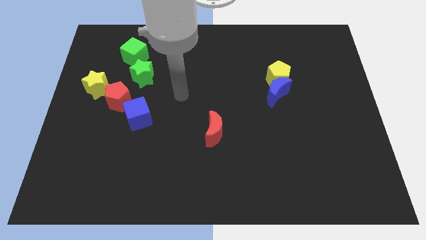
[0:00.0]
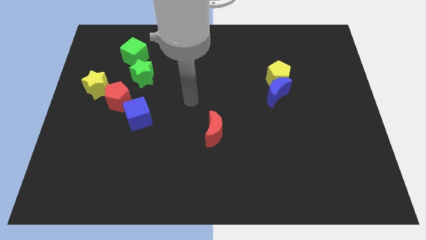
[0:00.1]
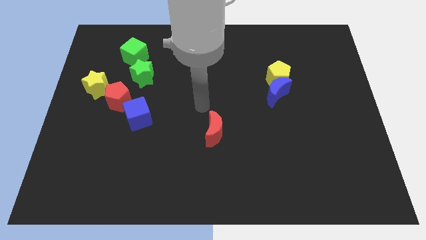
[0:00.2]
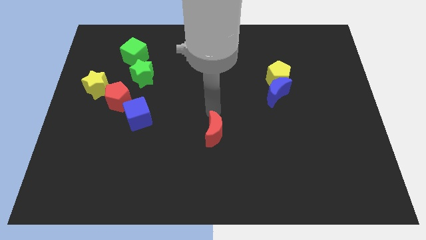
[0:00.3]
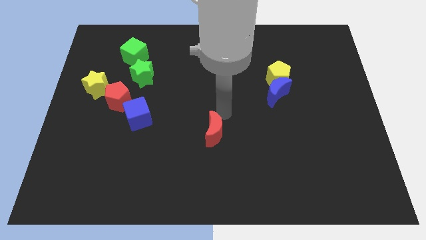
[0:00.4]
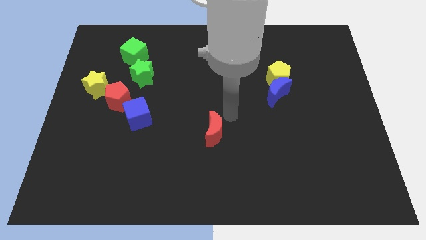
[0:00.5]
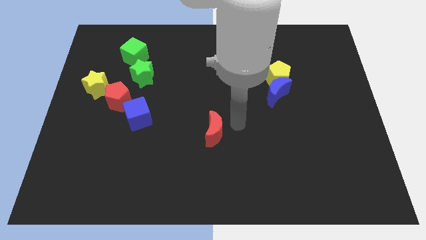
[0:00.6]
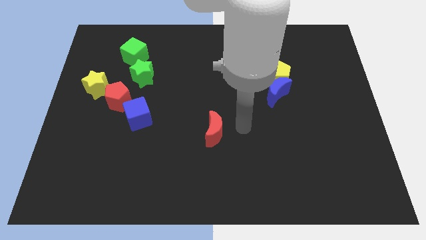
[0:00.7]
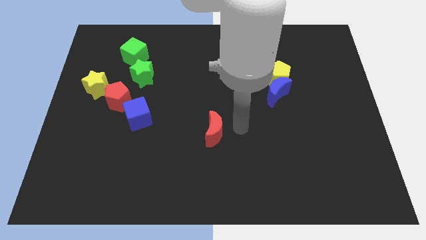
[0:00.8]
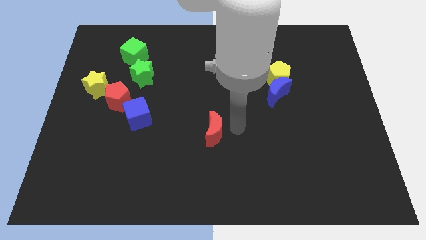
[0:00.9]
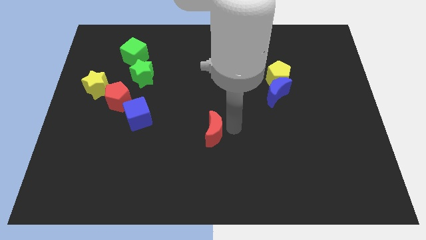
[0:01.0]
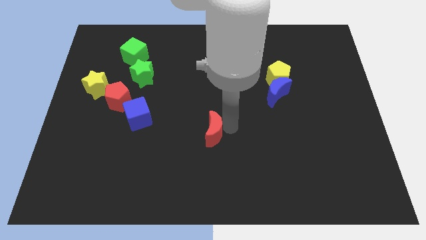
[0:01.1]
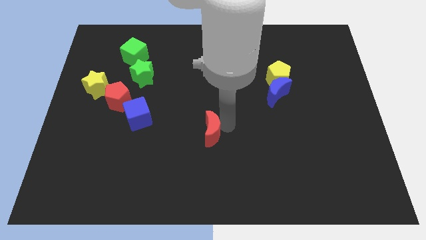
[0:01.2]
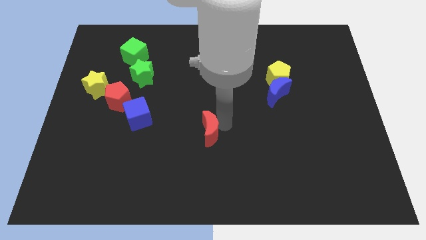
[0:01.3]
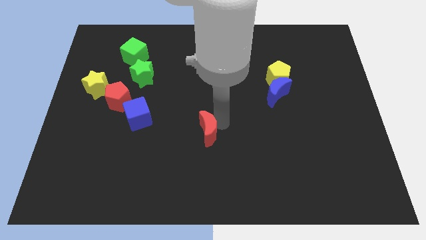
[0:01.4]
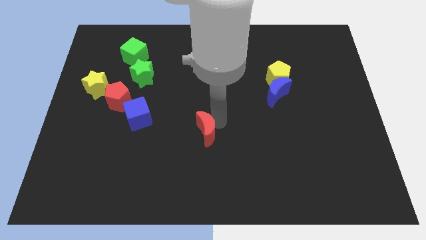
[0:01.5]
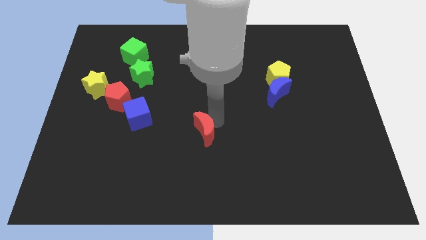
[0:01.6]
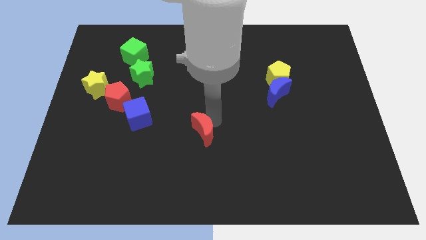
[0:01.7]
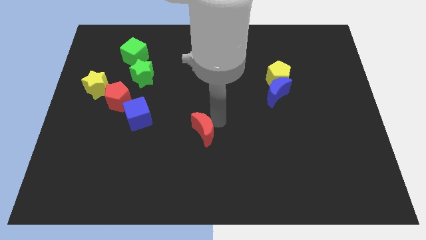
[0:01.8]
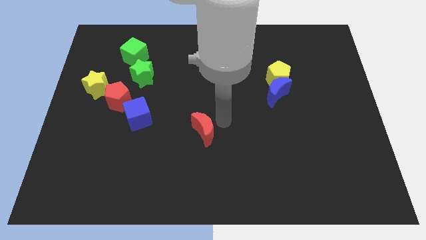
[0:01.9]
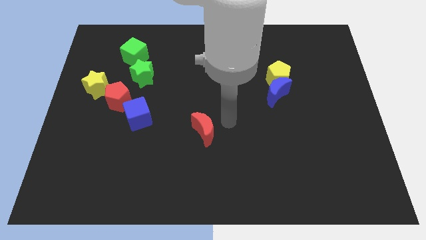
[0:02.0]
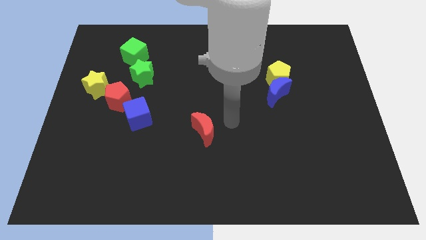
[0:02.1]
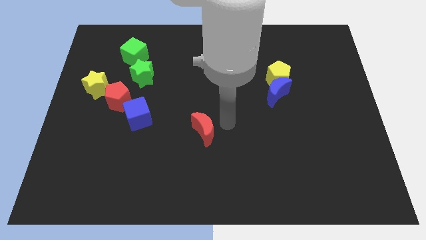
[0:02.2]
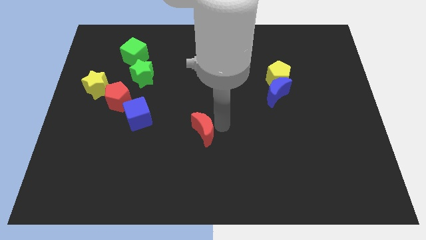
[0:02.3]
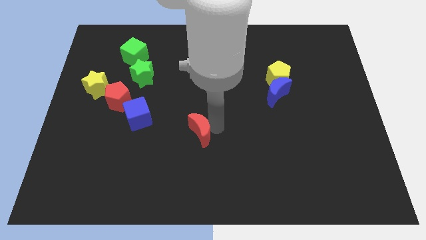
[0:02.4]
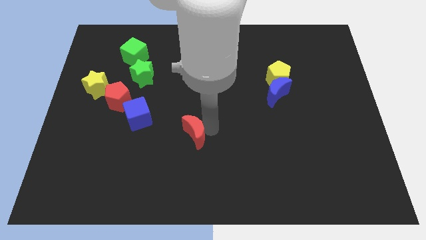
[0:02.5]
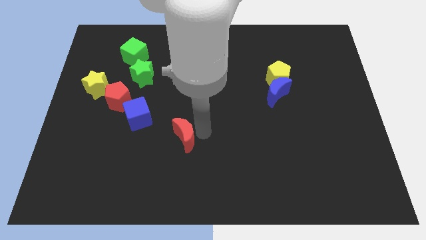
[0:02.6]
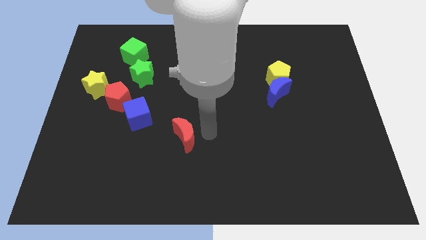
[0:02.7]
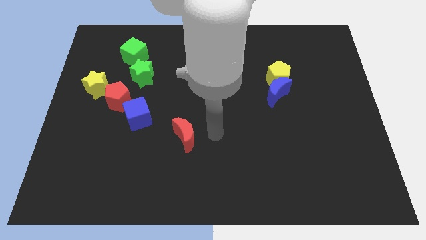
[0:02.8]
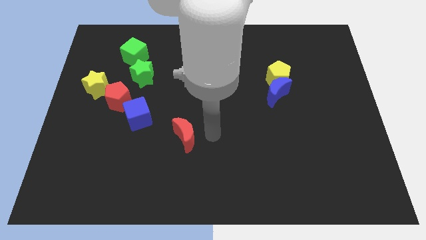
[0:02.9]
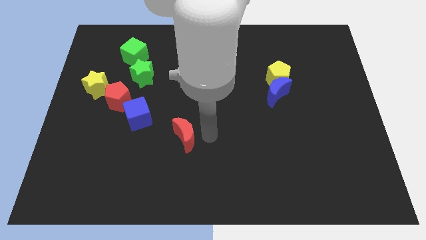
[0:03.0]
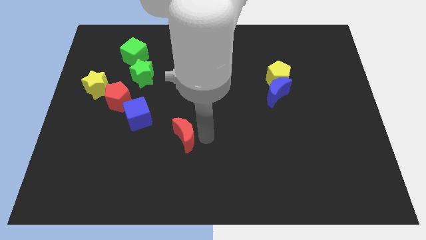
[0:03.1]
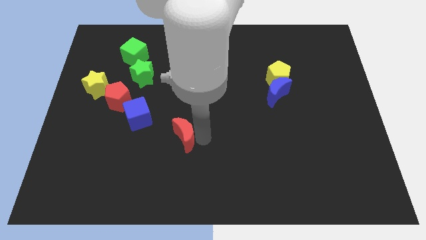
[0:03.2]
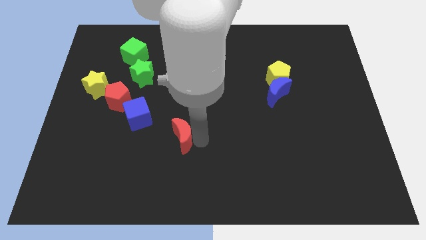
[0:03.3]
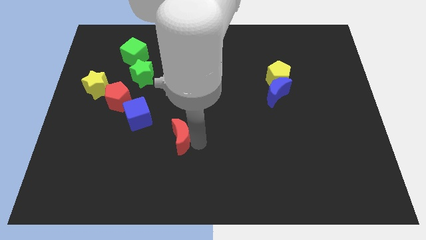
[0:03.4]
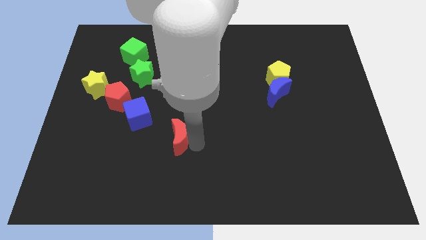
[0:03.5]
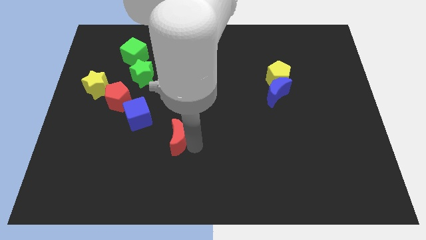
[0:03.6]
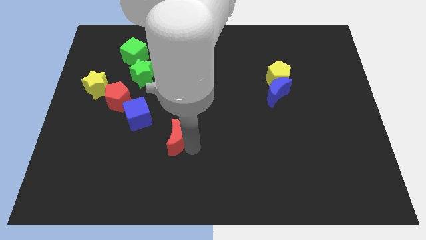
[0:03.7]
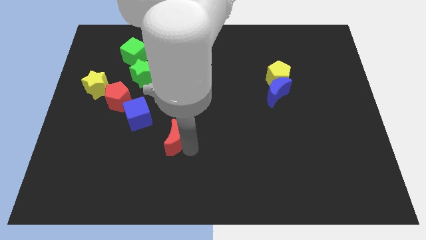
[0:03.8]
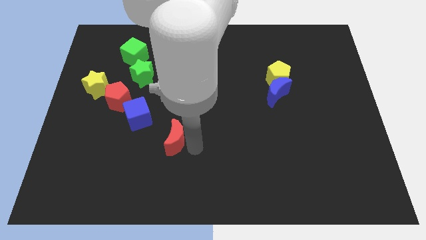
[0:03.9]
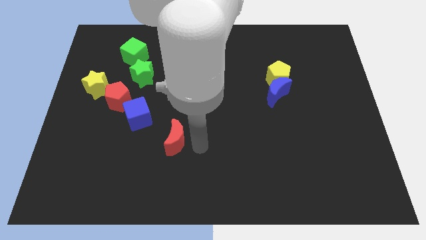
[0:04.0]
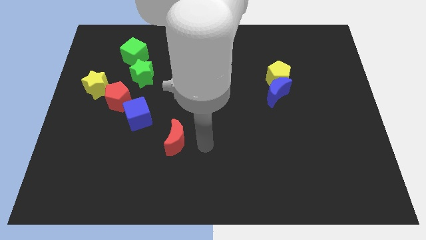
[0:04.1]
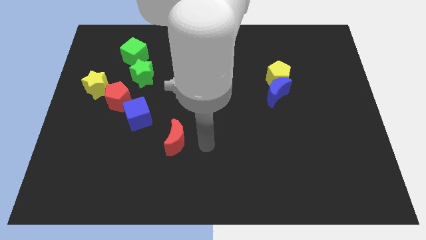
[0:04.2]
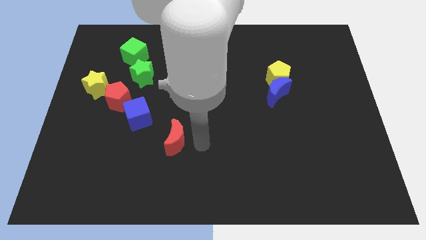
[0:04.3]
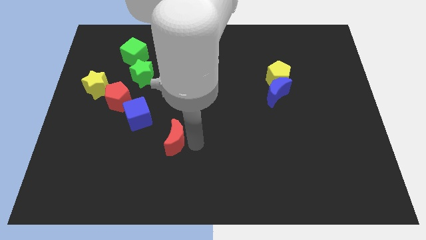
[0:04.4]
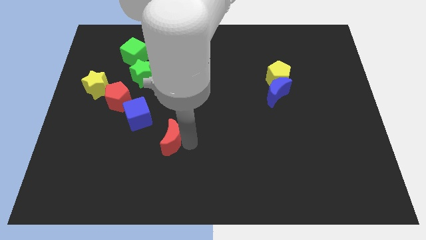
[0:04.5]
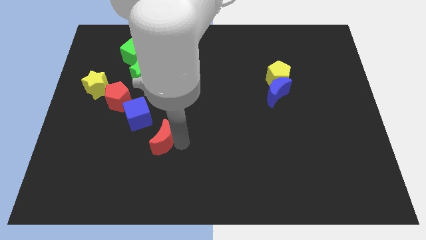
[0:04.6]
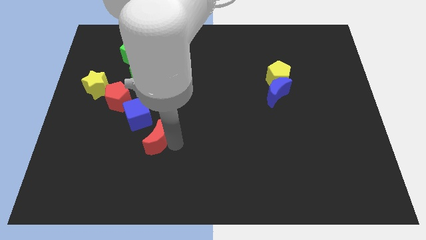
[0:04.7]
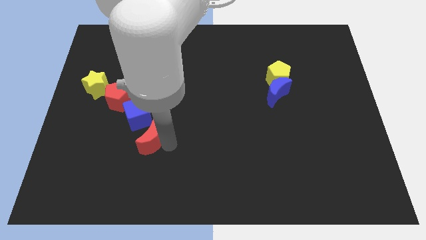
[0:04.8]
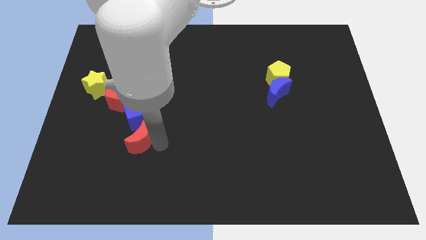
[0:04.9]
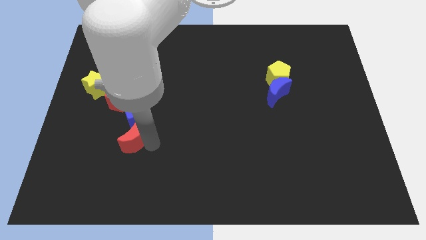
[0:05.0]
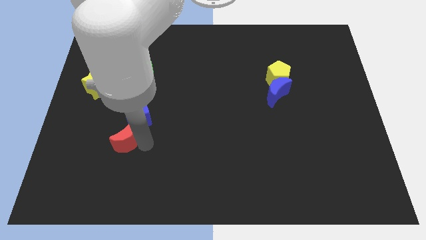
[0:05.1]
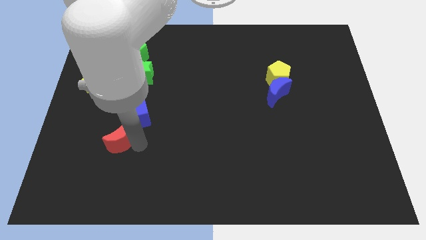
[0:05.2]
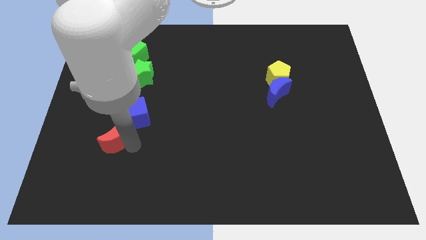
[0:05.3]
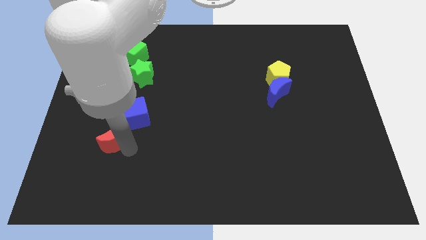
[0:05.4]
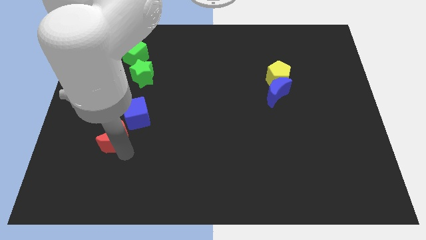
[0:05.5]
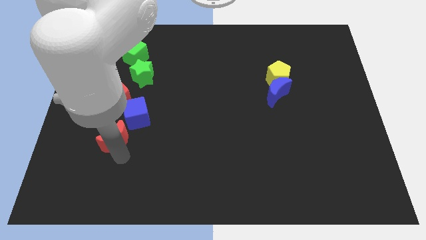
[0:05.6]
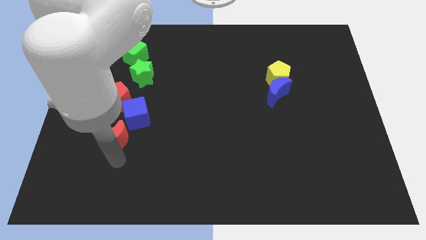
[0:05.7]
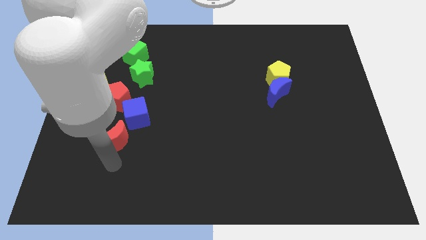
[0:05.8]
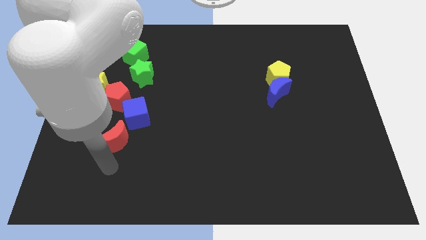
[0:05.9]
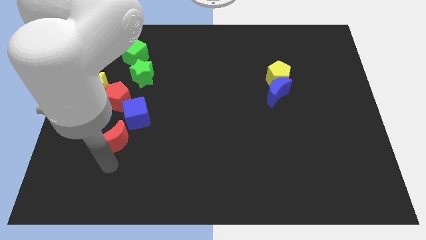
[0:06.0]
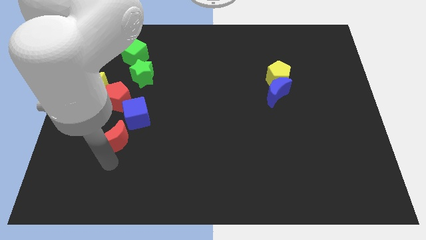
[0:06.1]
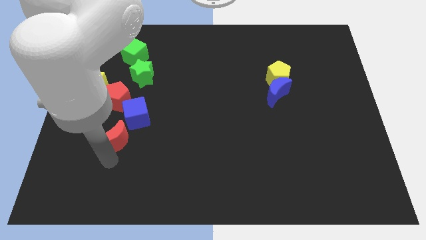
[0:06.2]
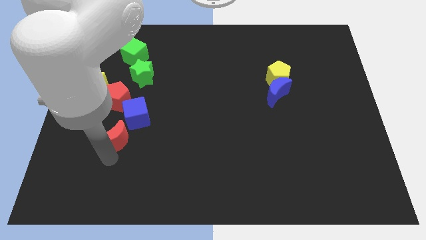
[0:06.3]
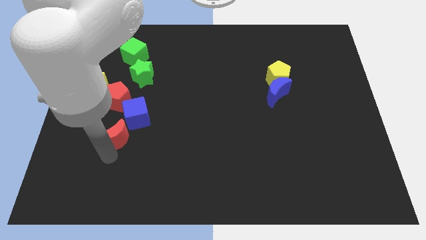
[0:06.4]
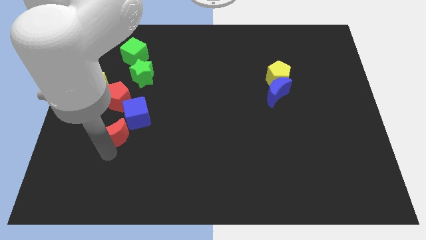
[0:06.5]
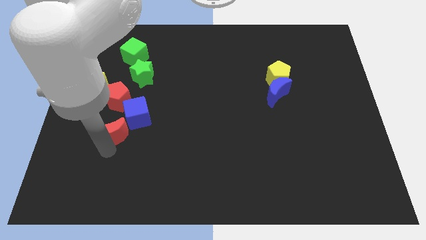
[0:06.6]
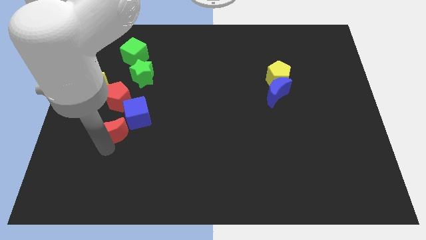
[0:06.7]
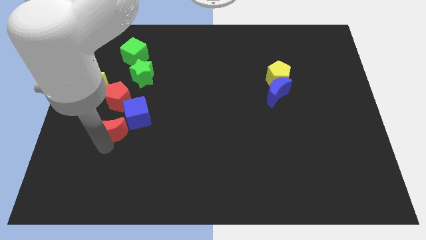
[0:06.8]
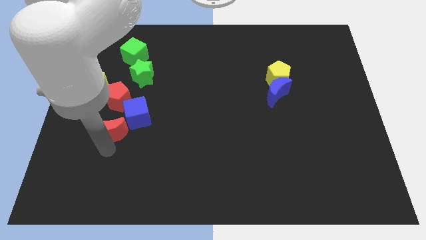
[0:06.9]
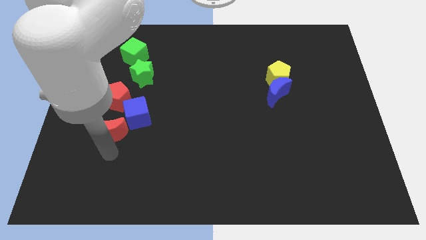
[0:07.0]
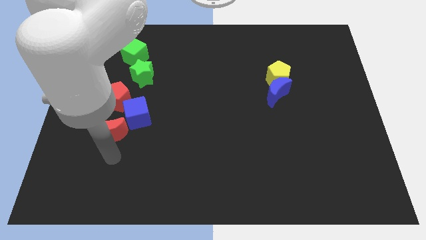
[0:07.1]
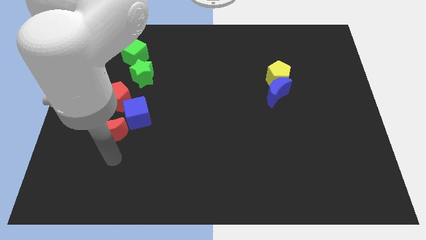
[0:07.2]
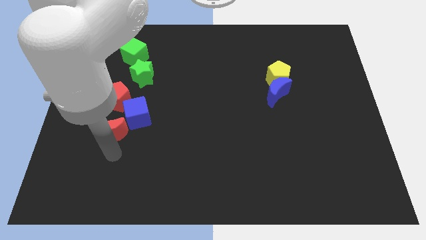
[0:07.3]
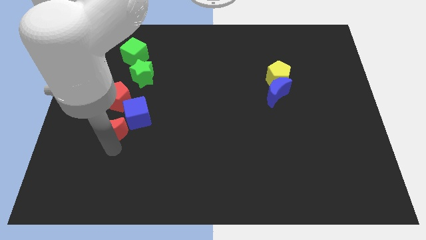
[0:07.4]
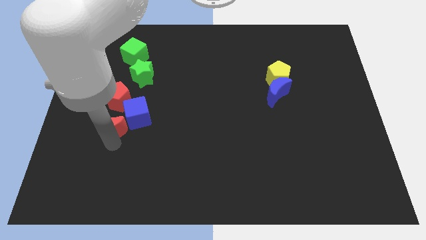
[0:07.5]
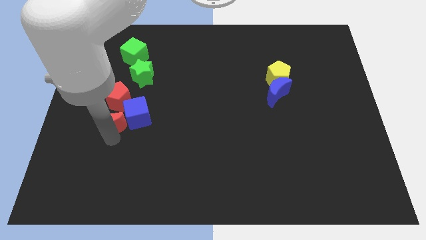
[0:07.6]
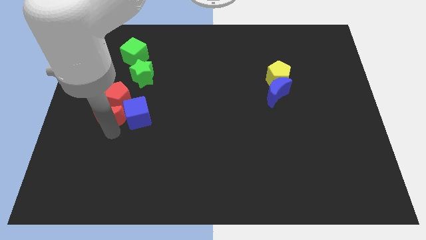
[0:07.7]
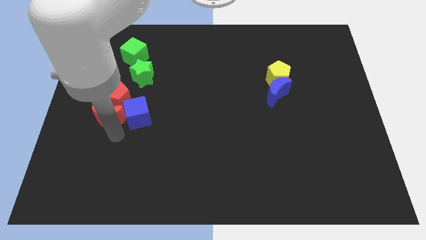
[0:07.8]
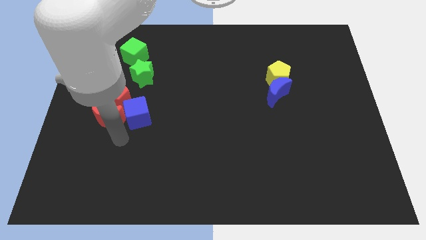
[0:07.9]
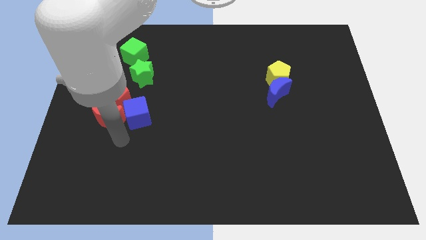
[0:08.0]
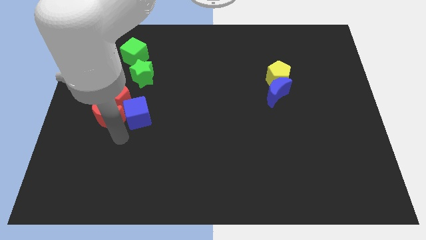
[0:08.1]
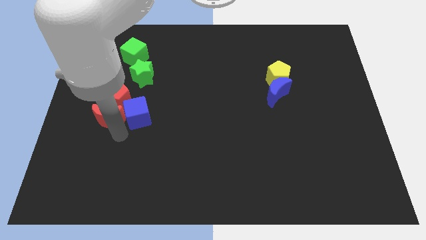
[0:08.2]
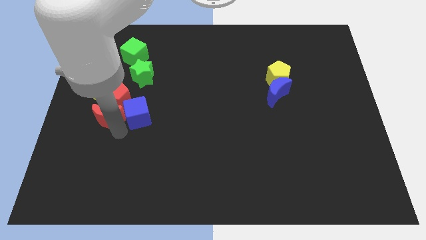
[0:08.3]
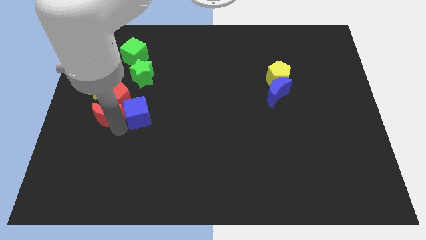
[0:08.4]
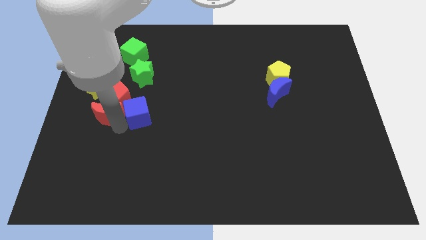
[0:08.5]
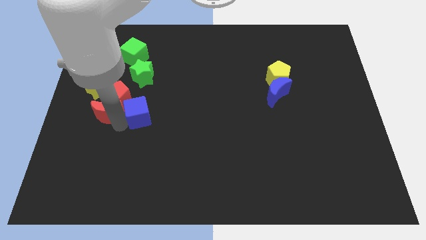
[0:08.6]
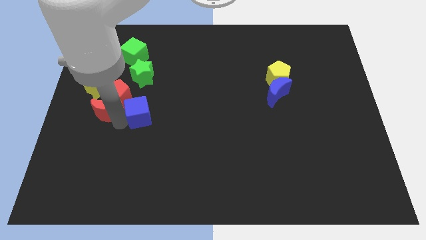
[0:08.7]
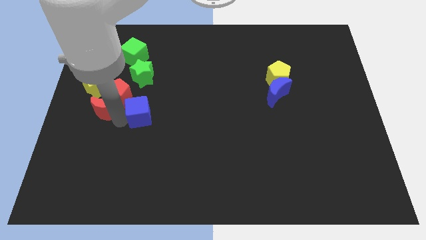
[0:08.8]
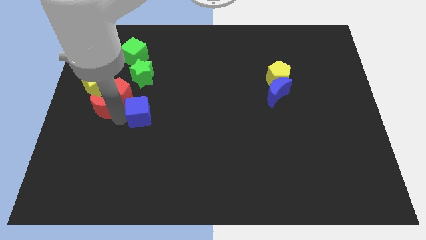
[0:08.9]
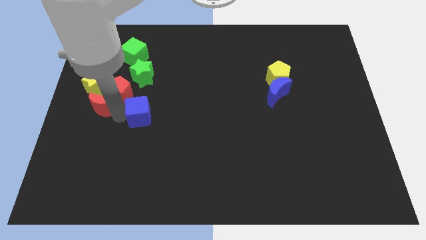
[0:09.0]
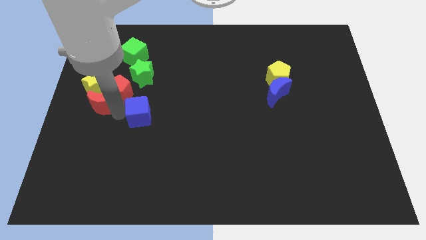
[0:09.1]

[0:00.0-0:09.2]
move the red moon towards the yellow star
